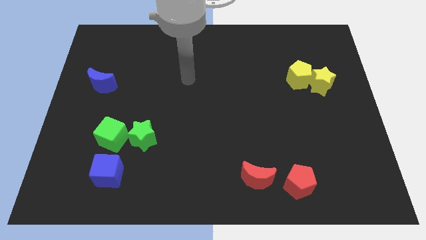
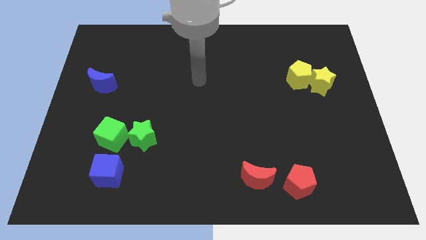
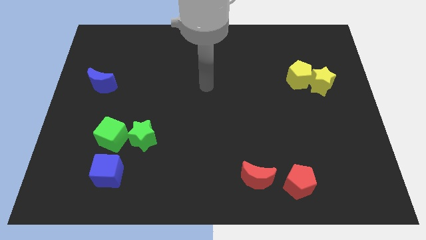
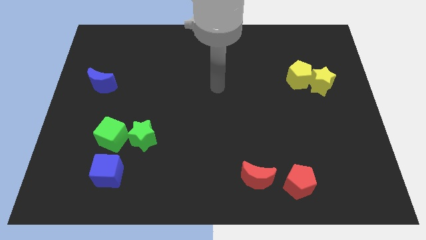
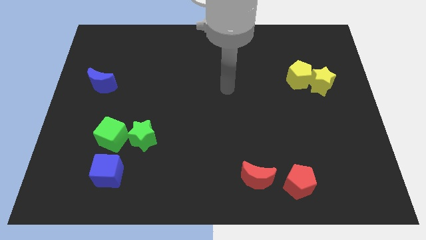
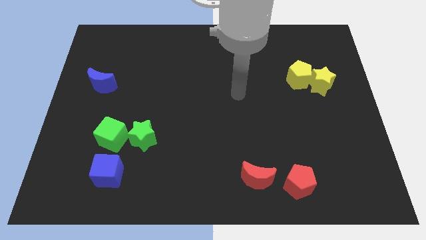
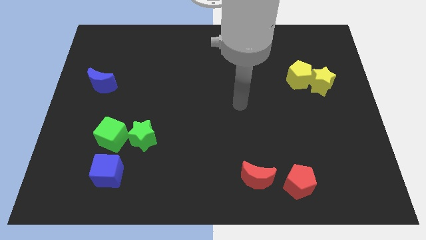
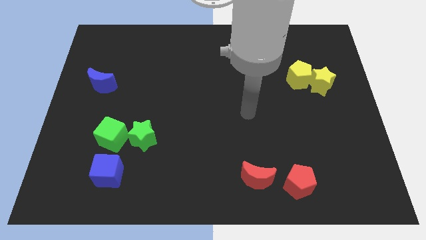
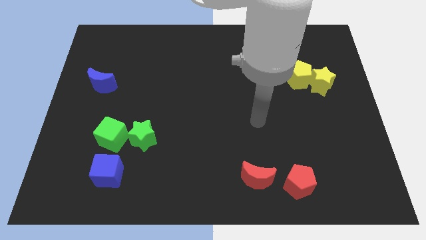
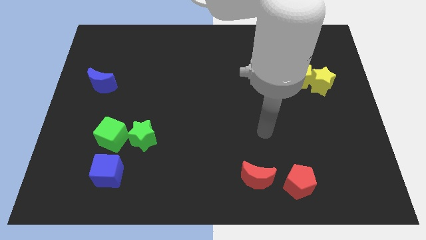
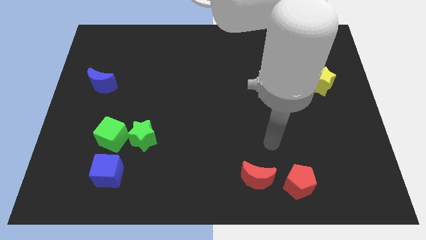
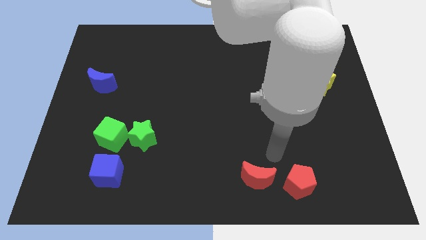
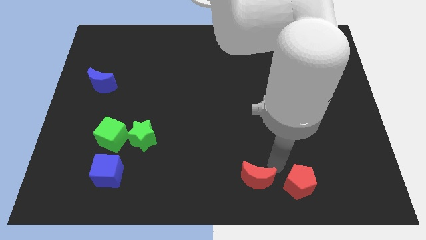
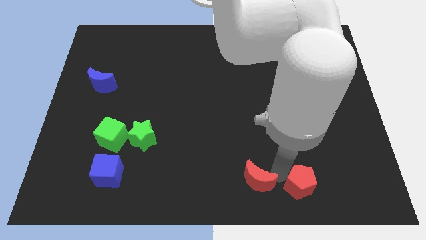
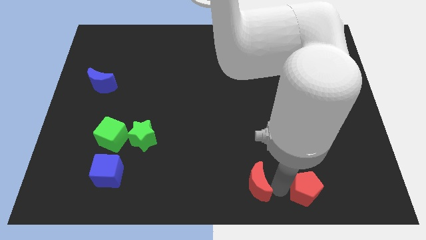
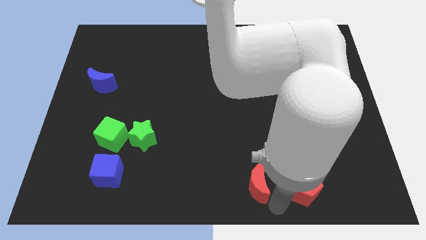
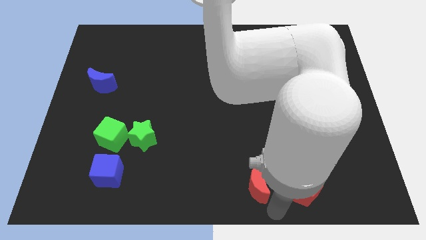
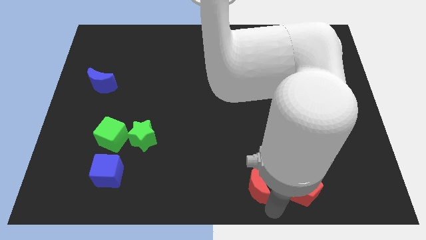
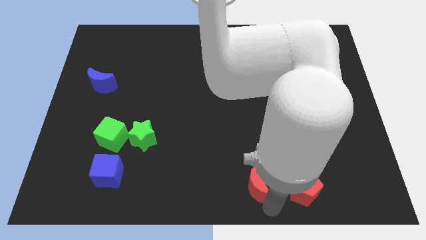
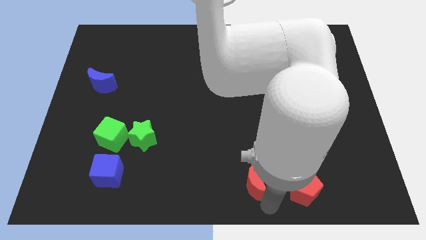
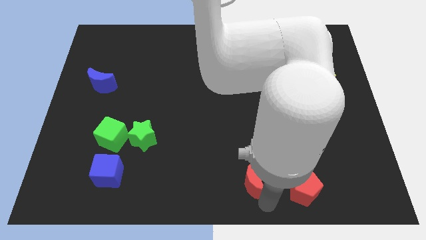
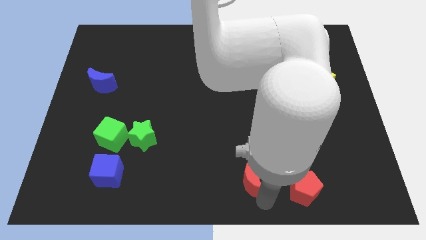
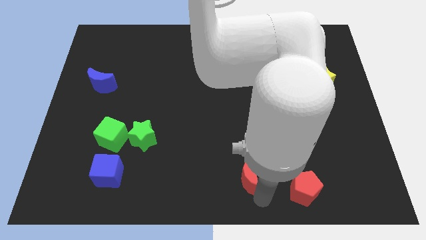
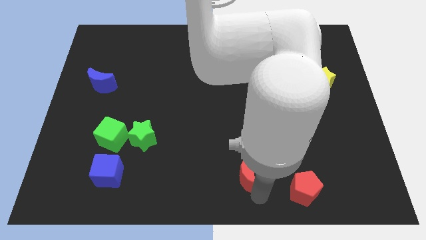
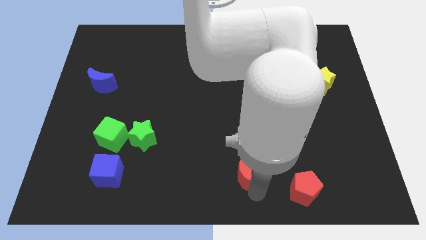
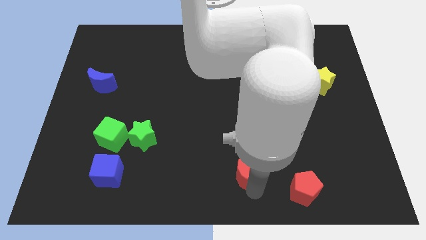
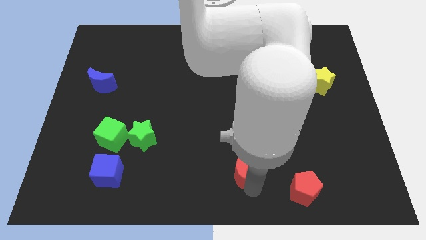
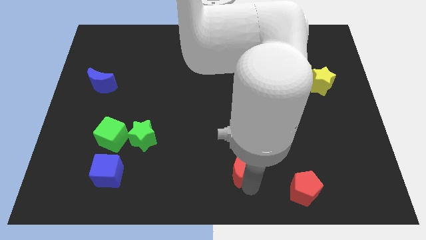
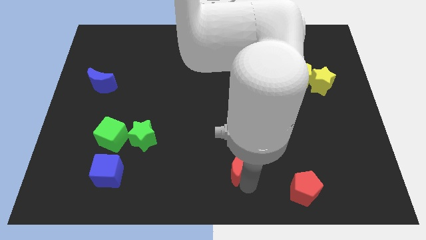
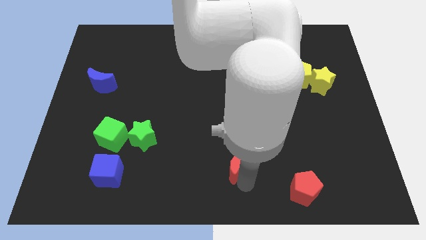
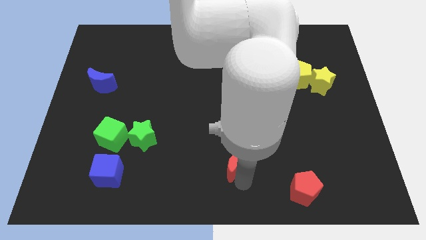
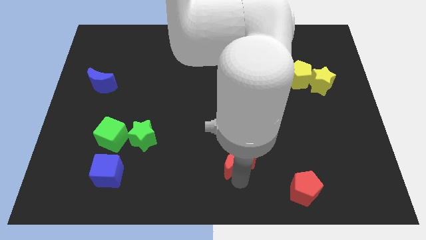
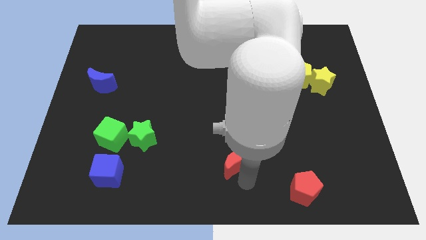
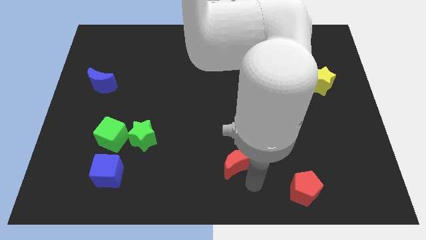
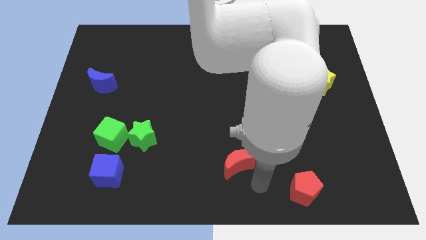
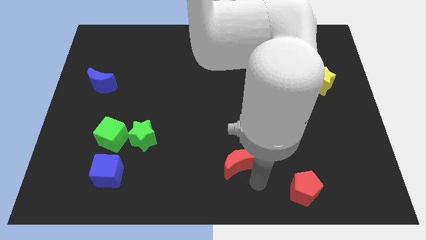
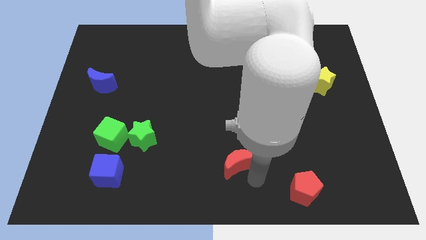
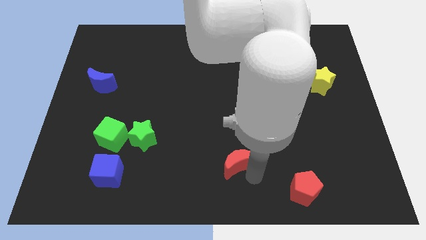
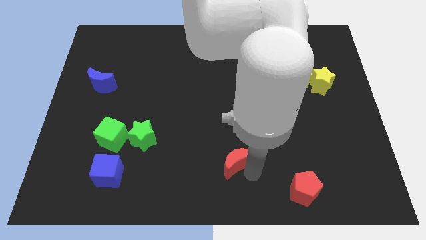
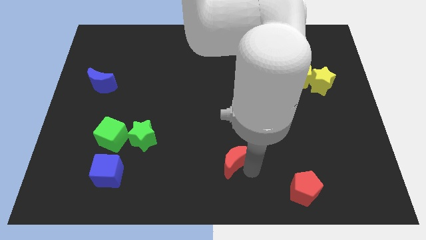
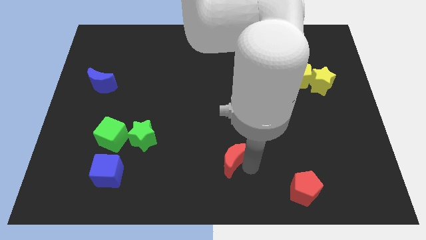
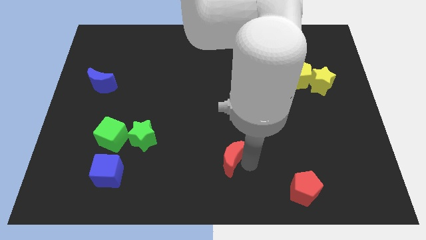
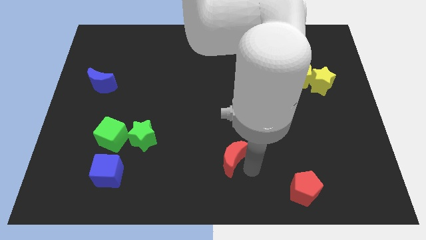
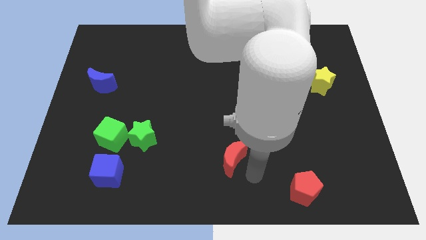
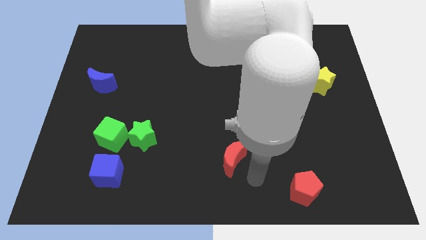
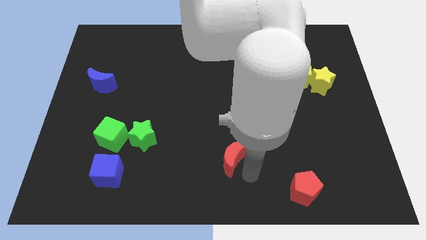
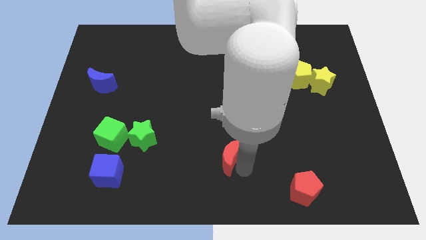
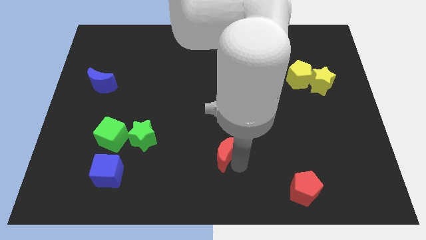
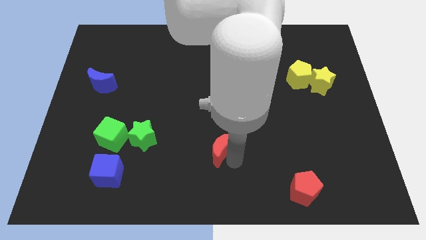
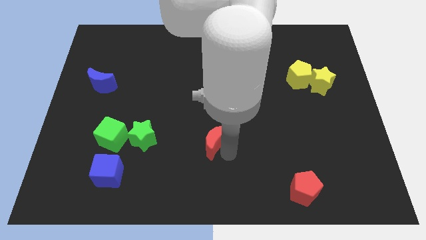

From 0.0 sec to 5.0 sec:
slide the red moon right of the green star

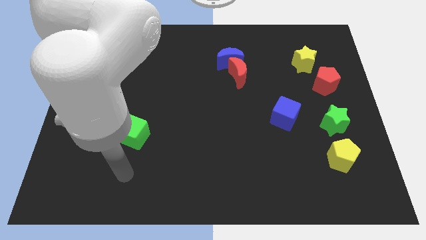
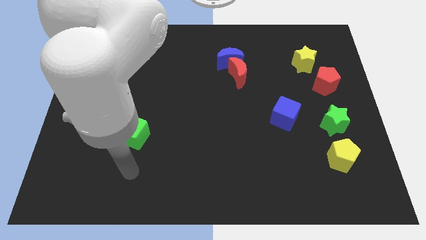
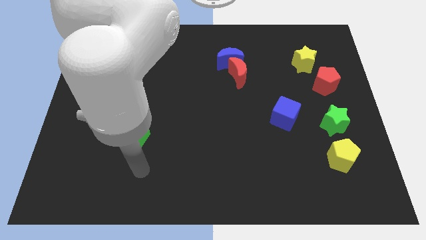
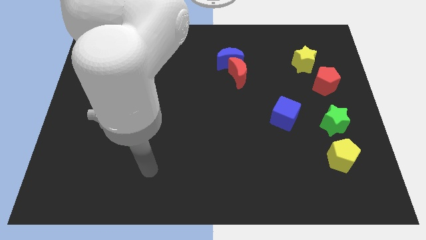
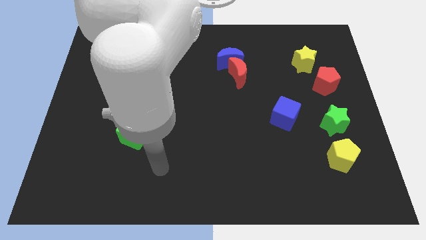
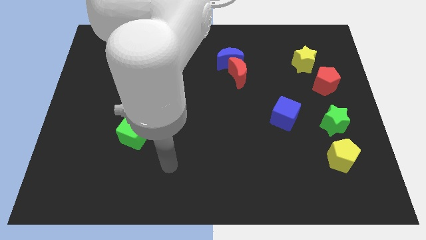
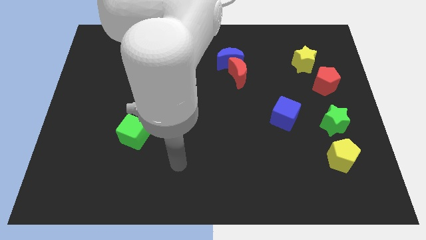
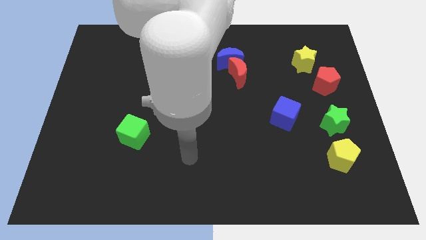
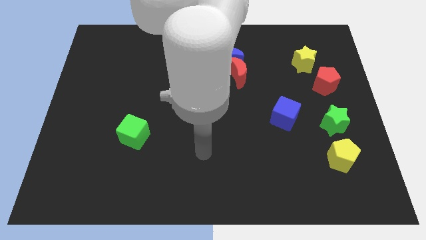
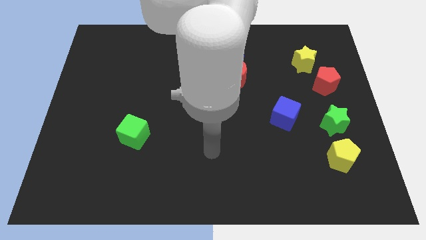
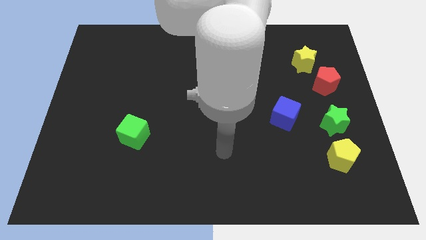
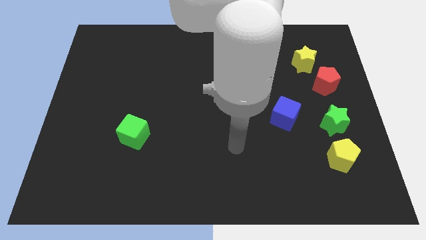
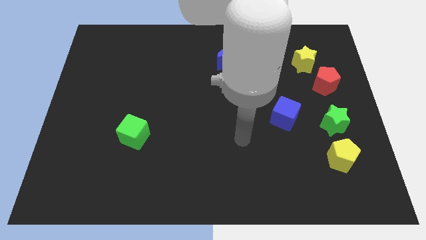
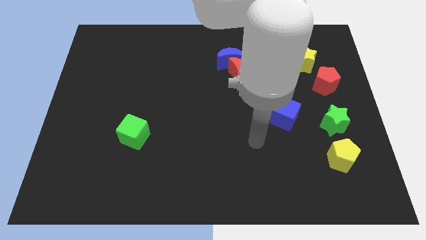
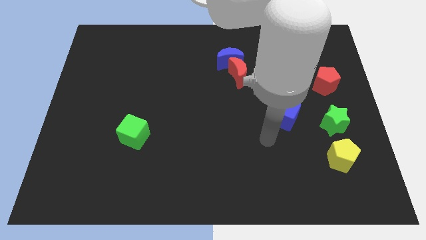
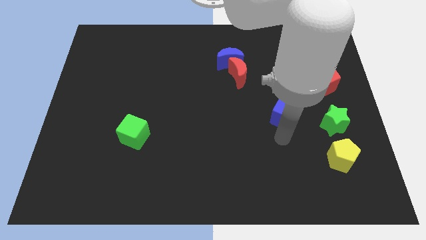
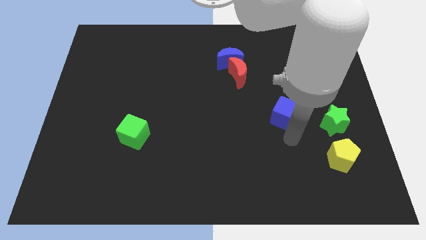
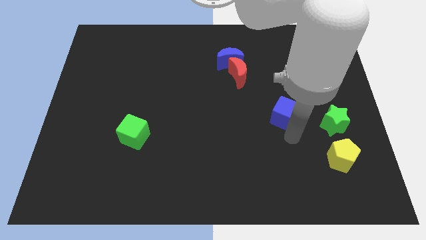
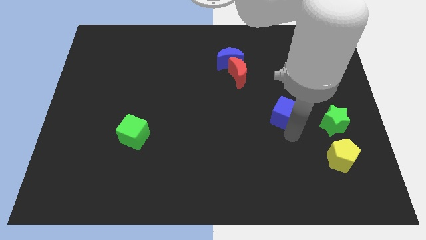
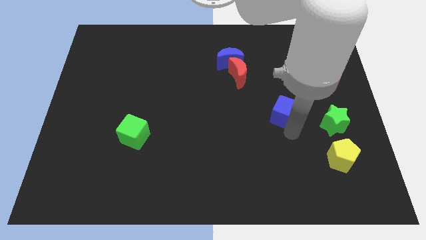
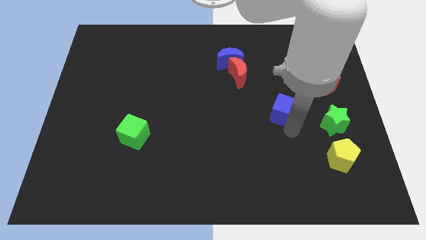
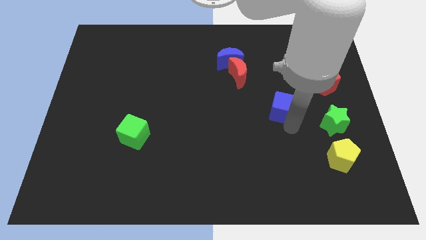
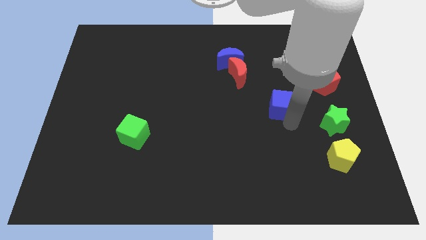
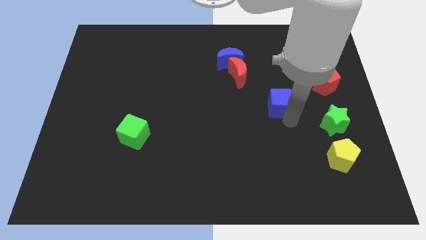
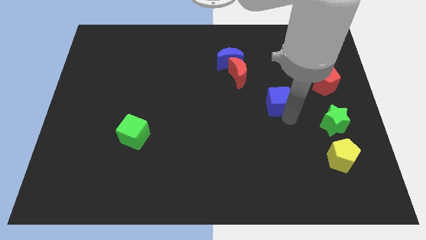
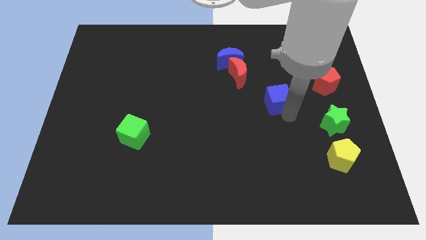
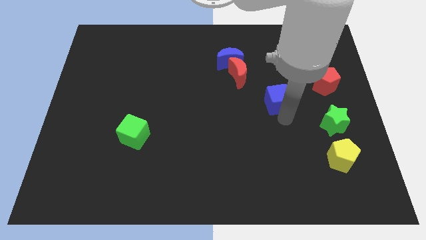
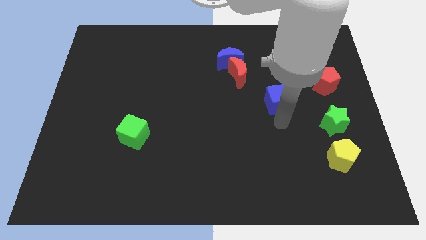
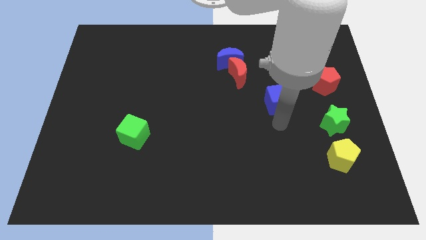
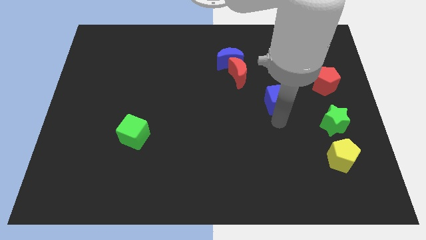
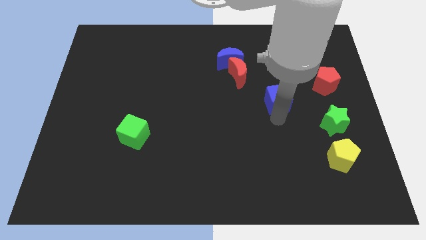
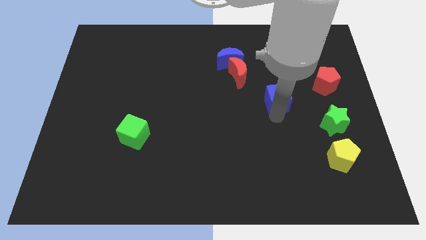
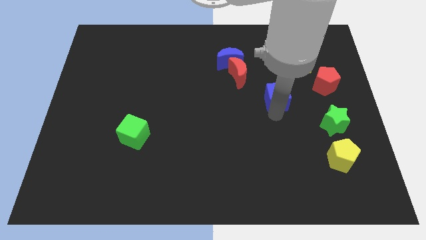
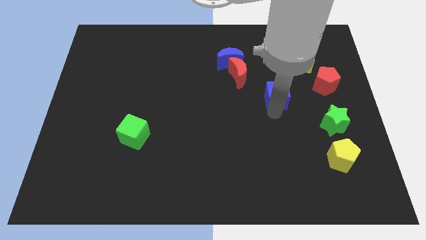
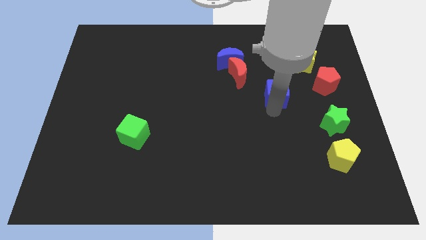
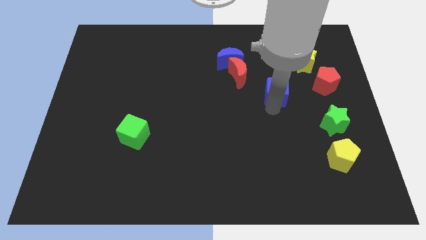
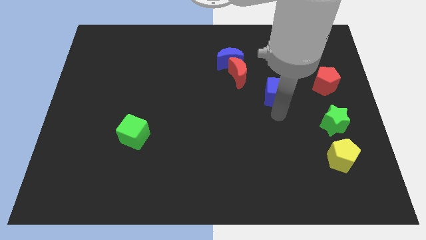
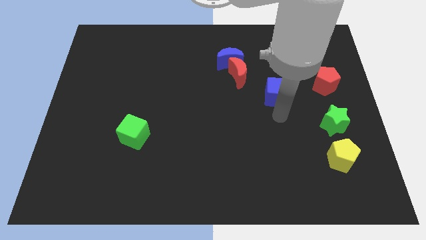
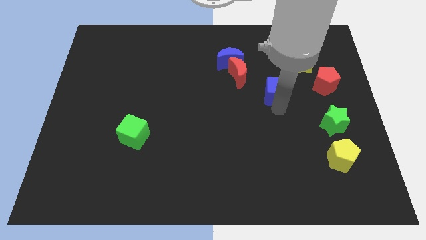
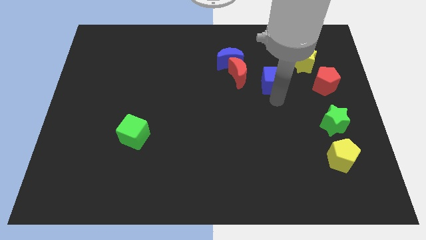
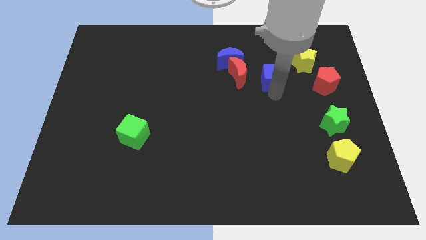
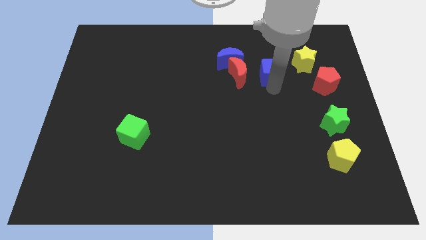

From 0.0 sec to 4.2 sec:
put the blue cube to the right of the blue moon
